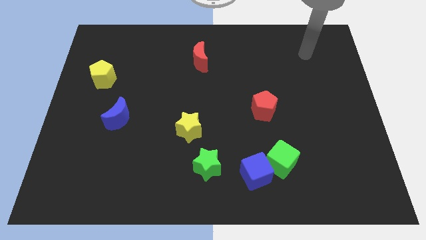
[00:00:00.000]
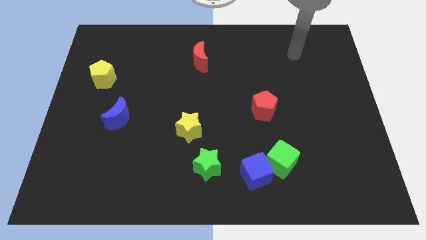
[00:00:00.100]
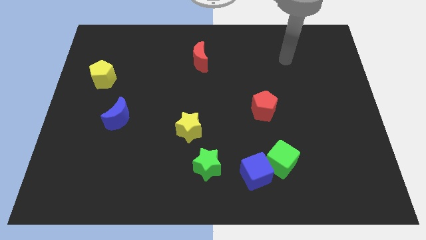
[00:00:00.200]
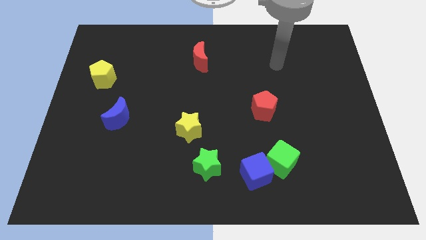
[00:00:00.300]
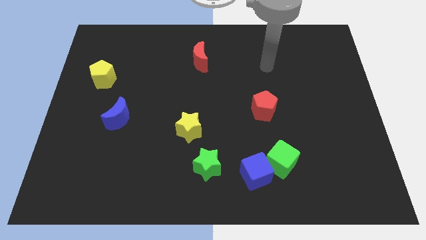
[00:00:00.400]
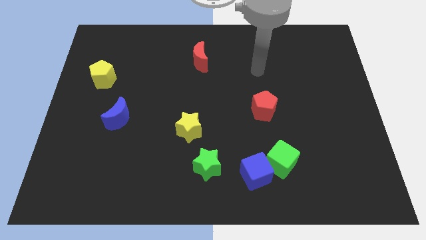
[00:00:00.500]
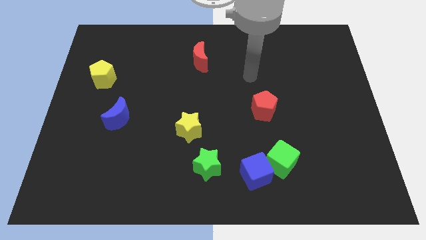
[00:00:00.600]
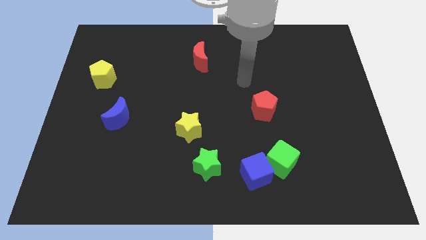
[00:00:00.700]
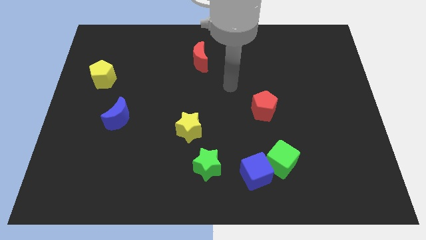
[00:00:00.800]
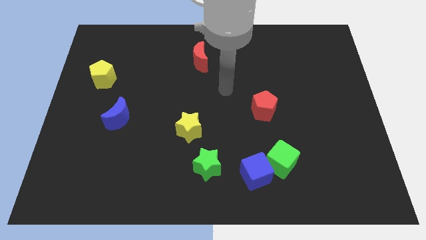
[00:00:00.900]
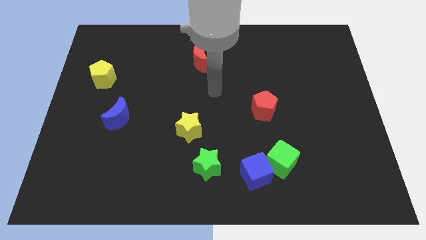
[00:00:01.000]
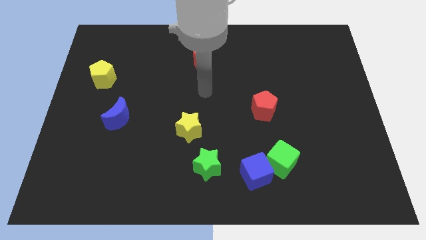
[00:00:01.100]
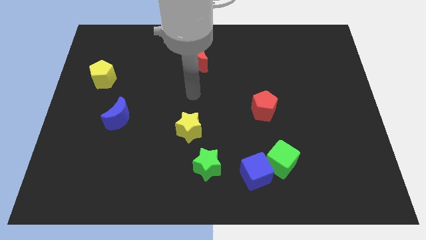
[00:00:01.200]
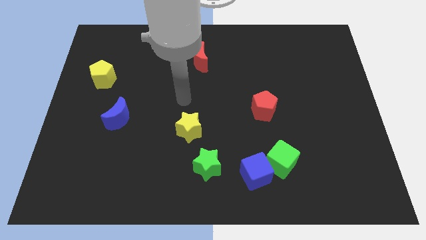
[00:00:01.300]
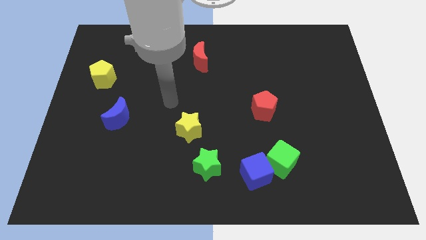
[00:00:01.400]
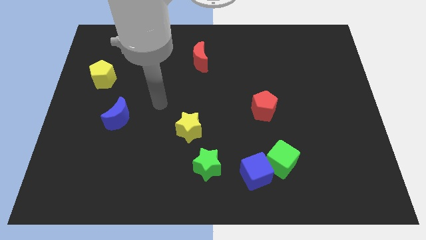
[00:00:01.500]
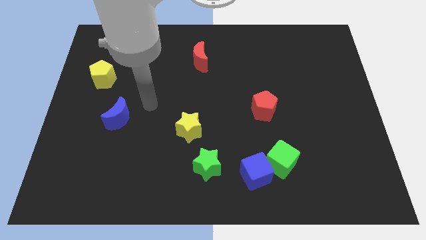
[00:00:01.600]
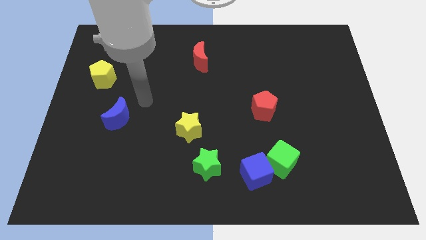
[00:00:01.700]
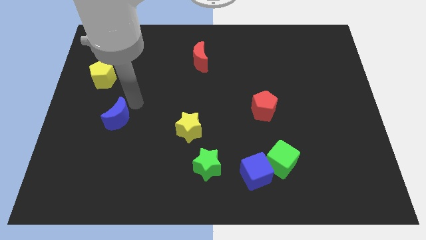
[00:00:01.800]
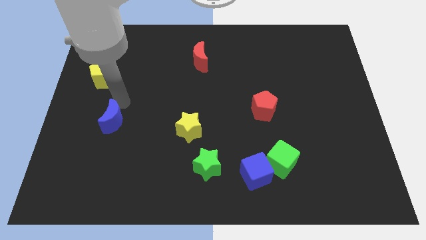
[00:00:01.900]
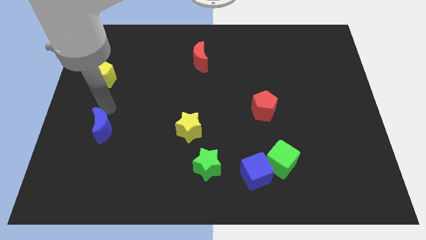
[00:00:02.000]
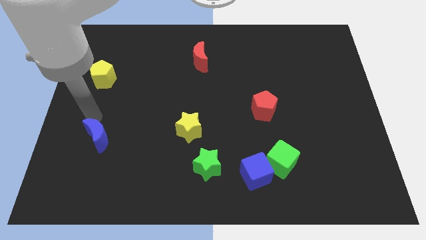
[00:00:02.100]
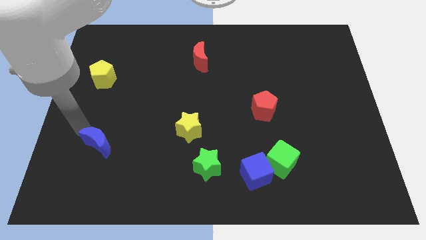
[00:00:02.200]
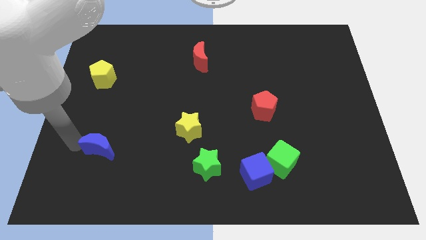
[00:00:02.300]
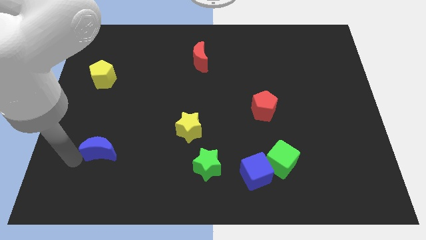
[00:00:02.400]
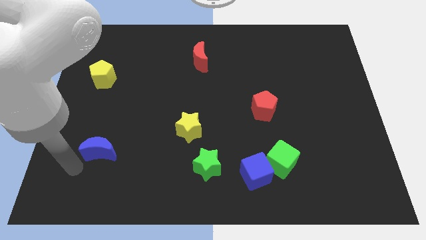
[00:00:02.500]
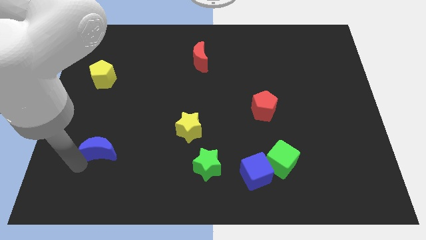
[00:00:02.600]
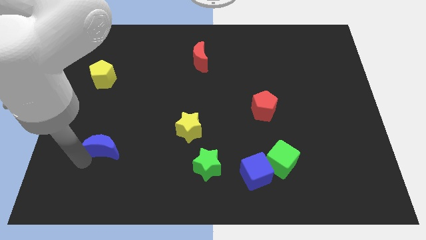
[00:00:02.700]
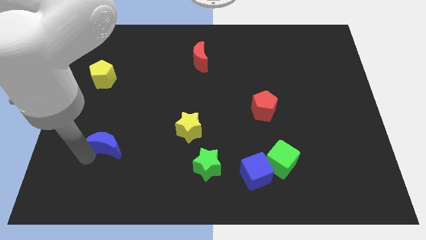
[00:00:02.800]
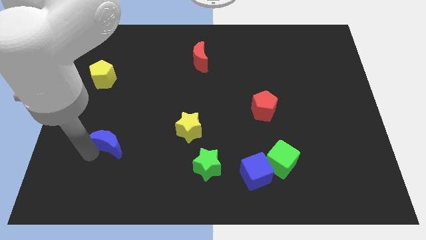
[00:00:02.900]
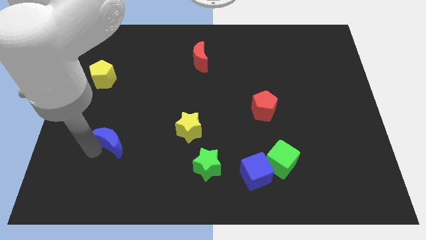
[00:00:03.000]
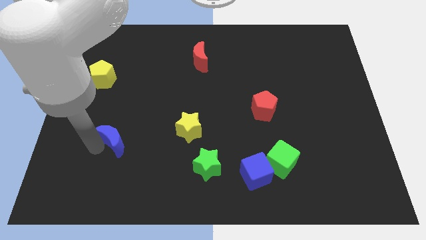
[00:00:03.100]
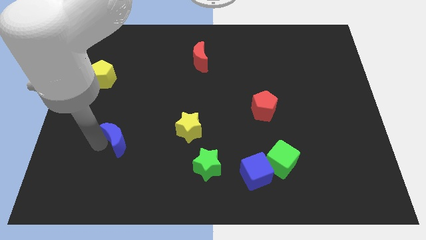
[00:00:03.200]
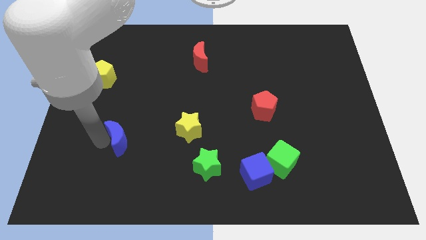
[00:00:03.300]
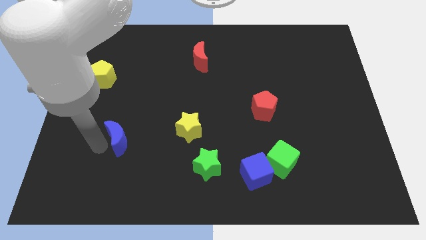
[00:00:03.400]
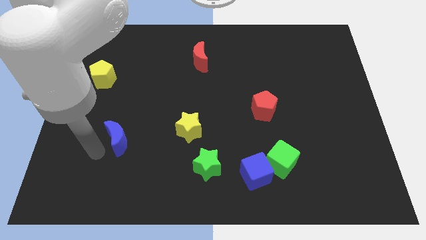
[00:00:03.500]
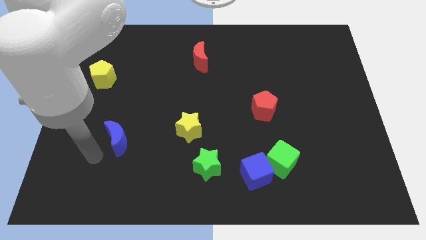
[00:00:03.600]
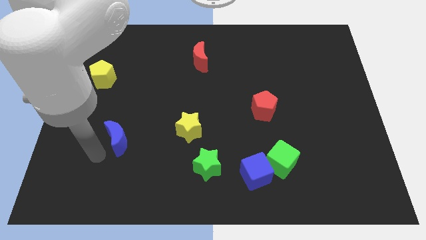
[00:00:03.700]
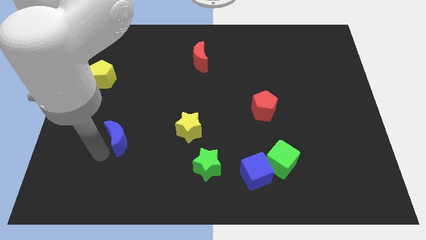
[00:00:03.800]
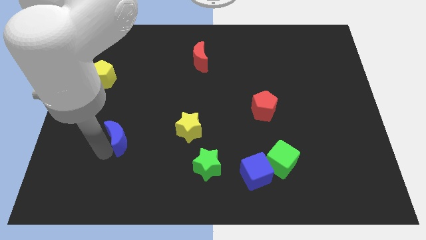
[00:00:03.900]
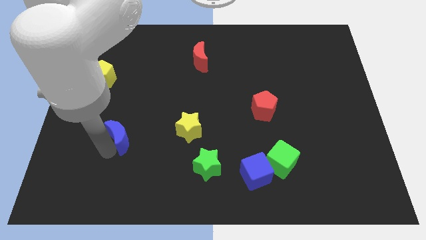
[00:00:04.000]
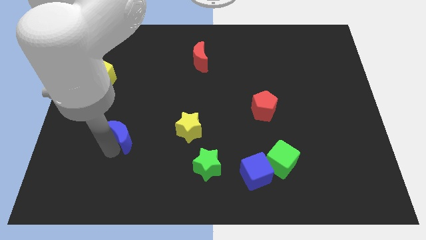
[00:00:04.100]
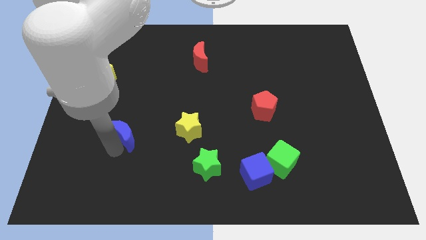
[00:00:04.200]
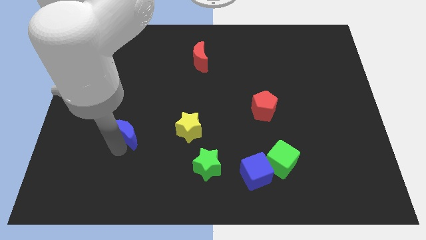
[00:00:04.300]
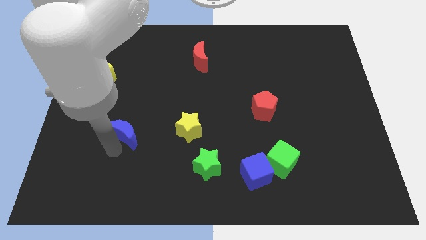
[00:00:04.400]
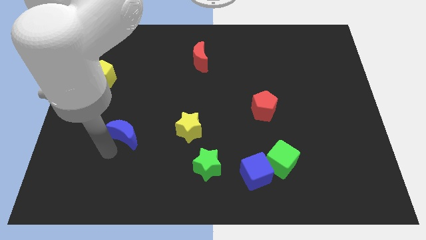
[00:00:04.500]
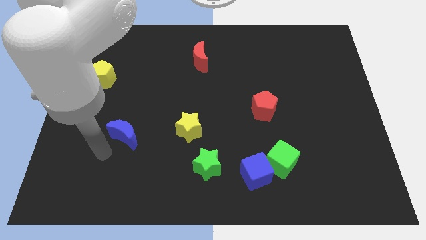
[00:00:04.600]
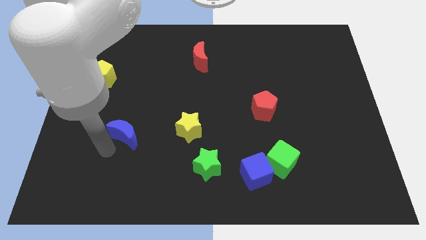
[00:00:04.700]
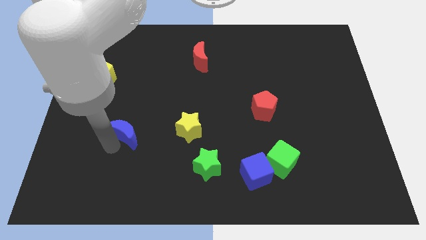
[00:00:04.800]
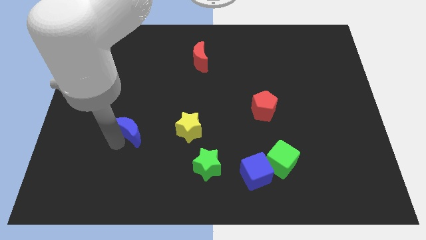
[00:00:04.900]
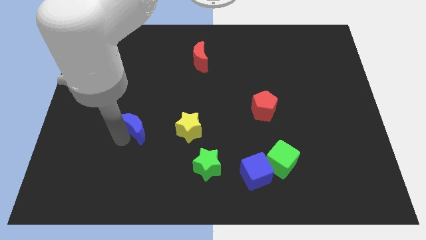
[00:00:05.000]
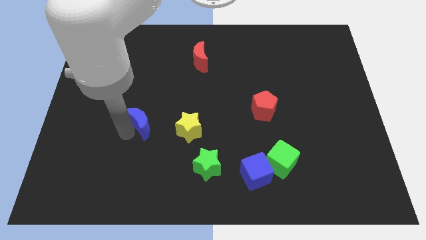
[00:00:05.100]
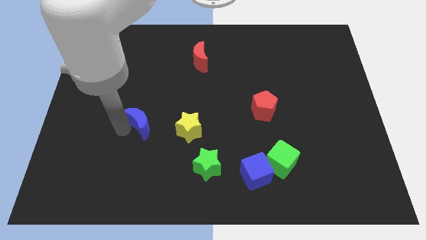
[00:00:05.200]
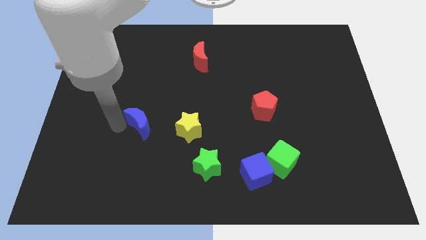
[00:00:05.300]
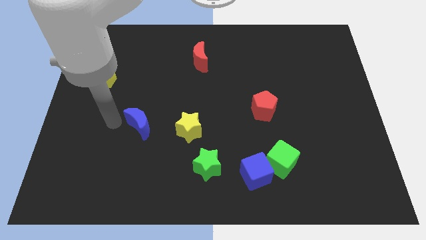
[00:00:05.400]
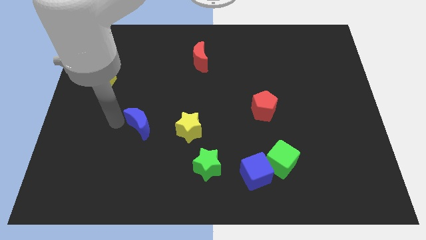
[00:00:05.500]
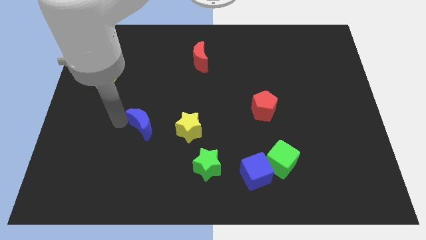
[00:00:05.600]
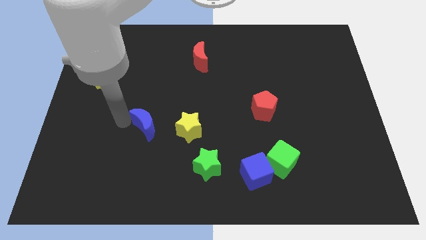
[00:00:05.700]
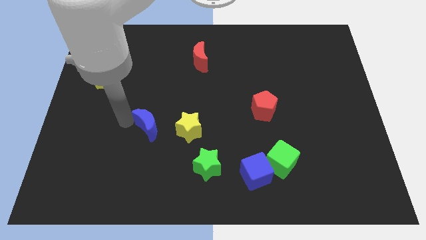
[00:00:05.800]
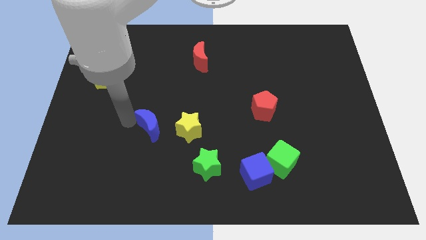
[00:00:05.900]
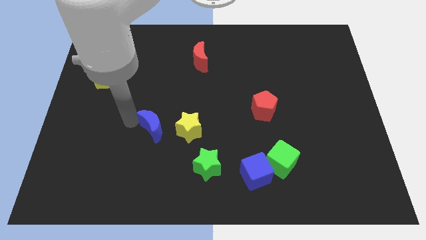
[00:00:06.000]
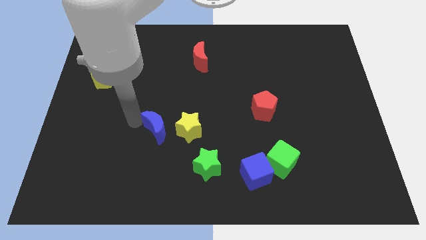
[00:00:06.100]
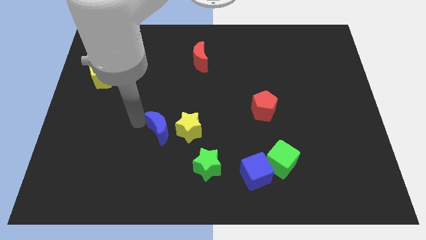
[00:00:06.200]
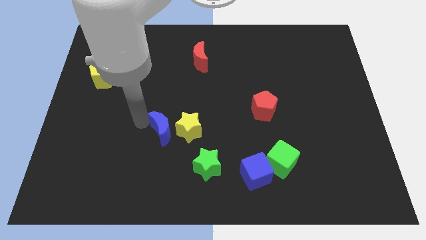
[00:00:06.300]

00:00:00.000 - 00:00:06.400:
slide the blue moon next to the yellow star
